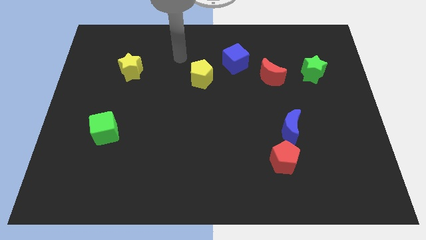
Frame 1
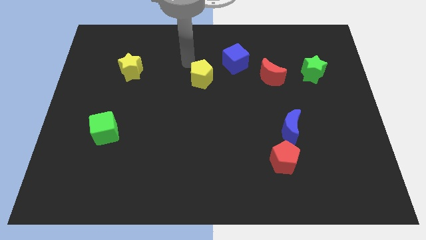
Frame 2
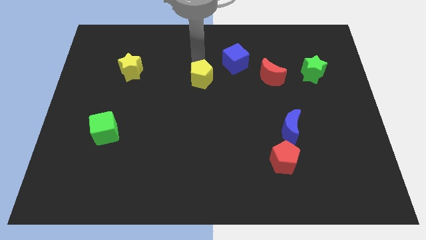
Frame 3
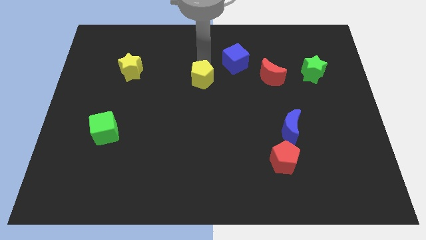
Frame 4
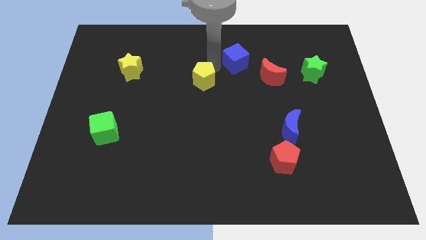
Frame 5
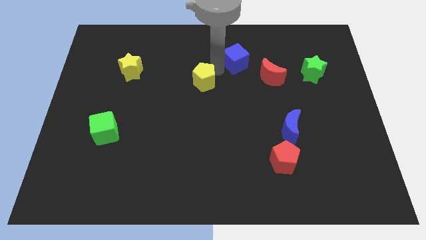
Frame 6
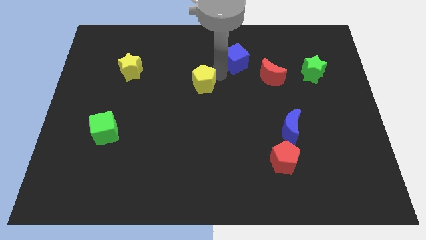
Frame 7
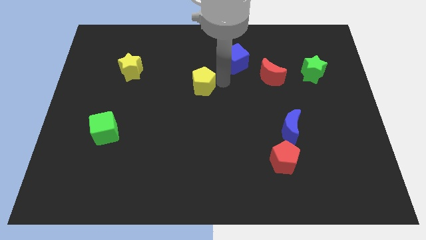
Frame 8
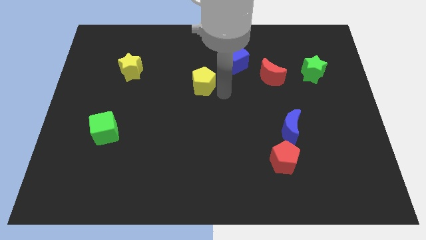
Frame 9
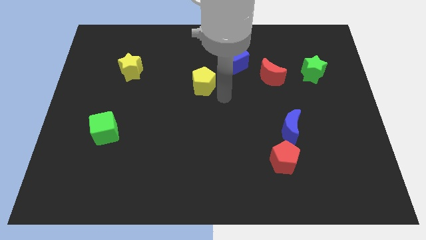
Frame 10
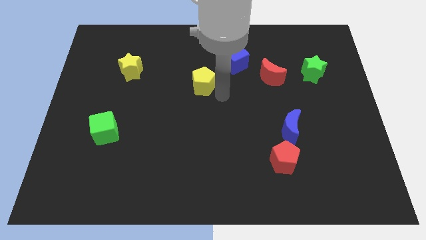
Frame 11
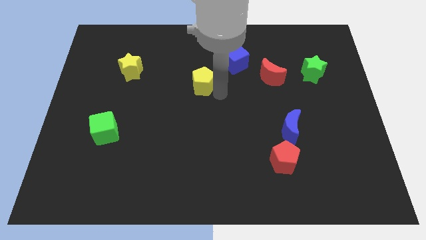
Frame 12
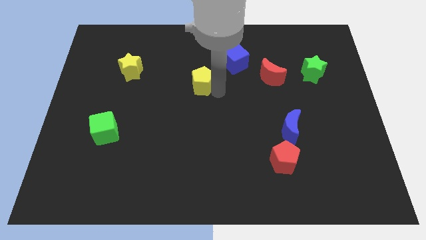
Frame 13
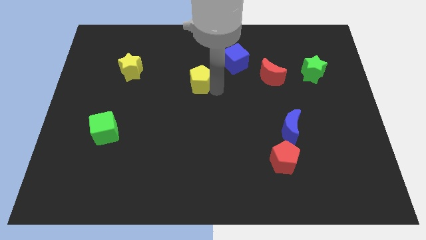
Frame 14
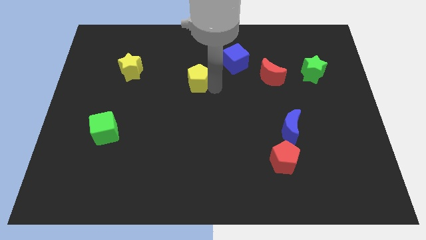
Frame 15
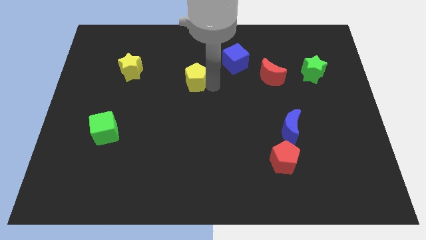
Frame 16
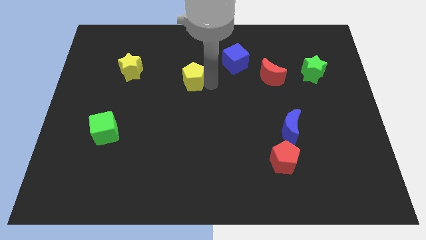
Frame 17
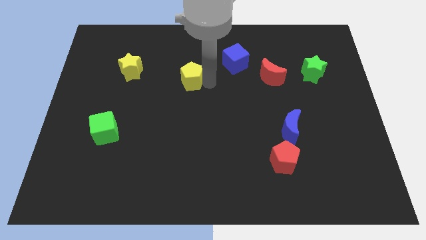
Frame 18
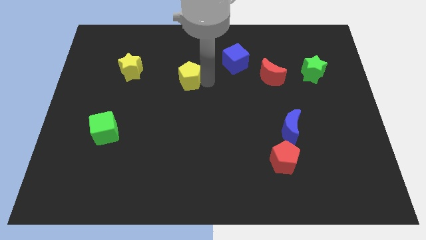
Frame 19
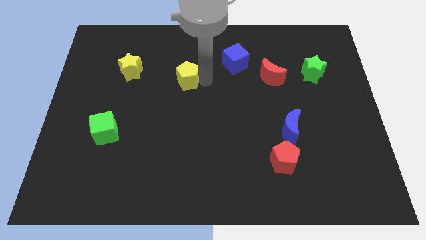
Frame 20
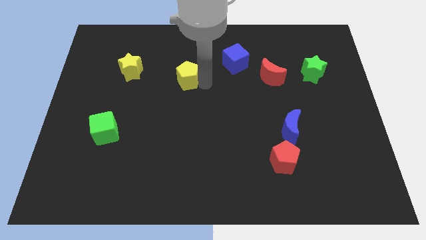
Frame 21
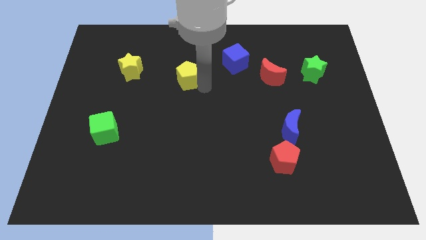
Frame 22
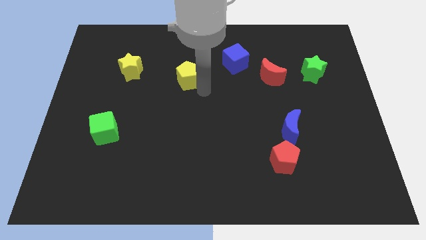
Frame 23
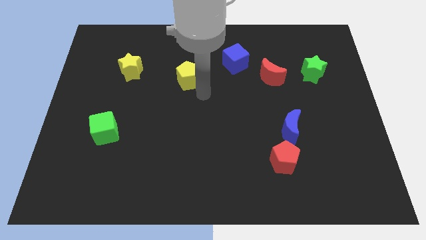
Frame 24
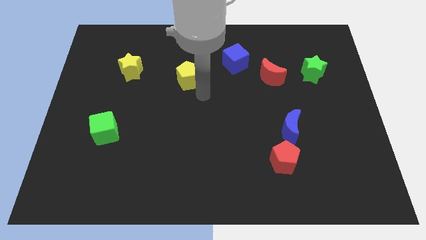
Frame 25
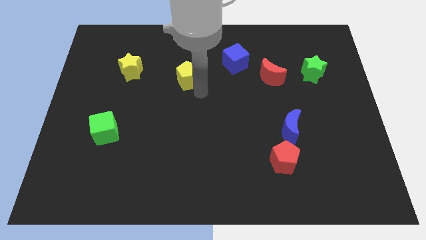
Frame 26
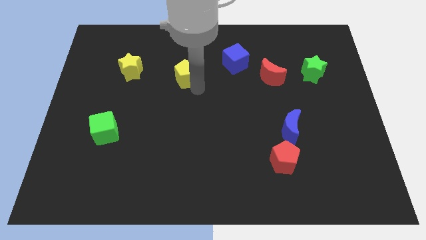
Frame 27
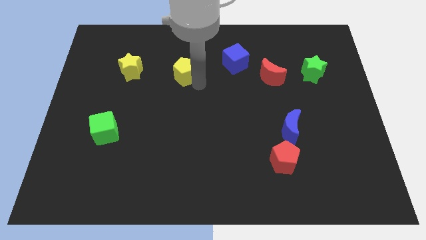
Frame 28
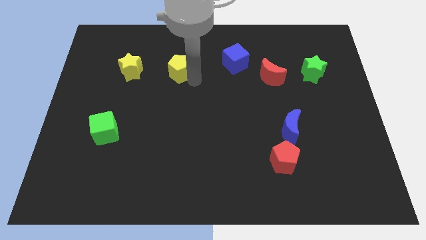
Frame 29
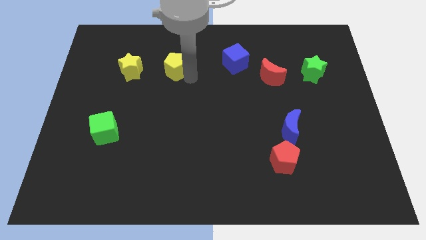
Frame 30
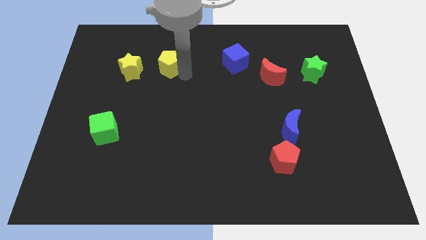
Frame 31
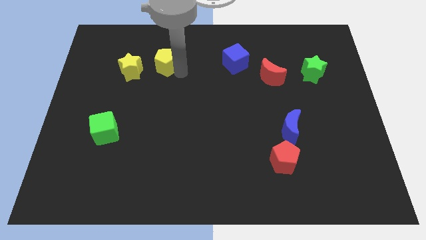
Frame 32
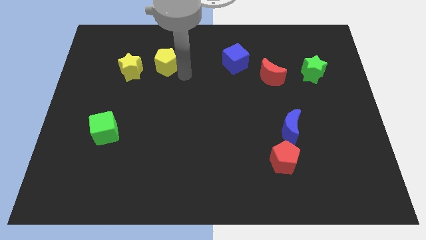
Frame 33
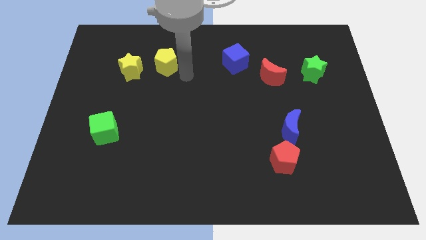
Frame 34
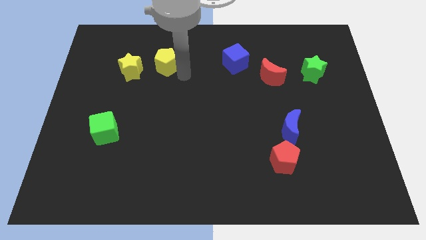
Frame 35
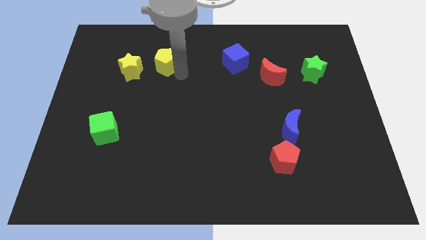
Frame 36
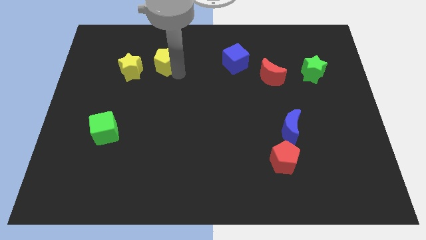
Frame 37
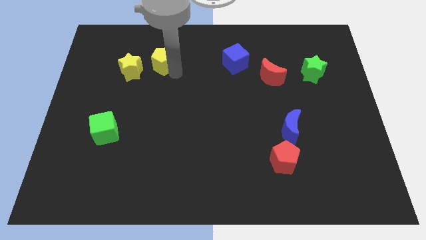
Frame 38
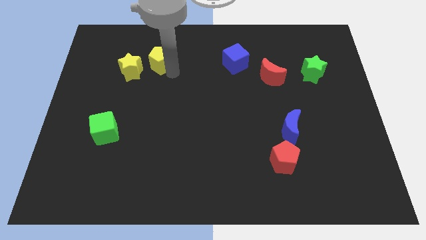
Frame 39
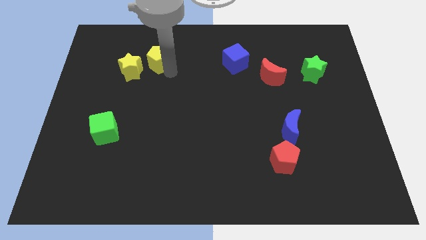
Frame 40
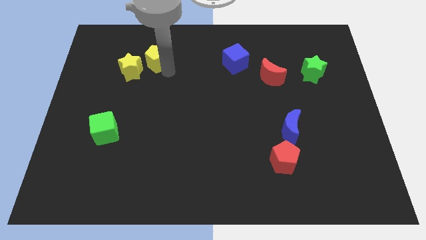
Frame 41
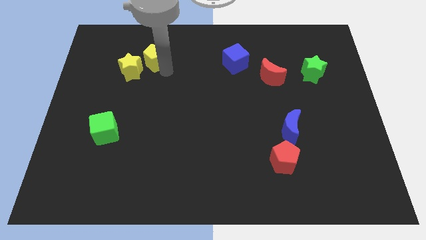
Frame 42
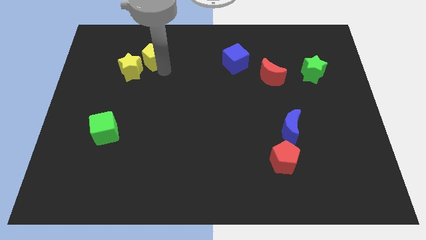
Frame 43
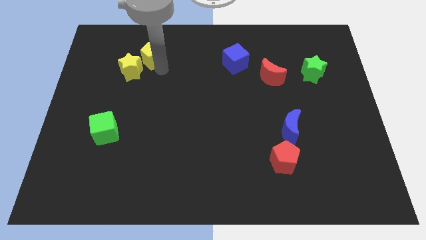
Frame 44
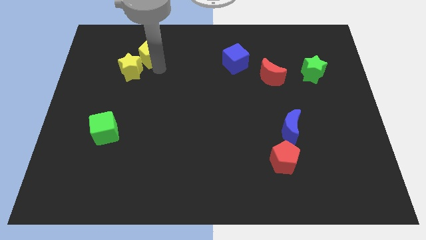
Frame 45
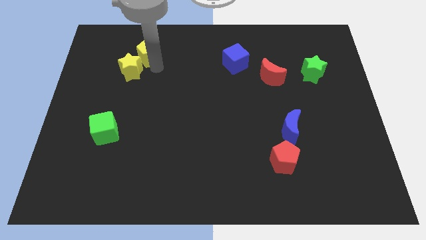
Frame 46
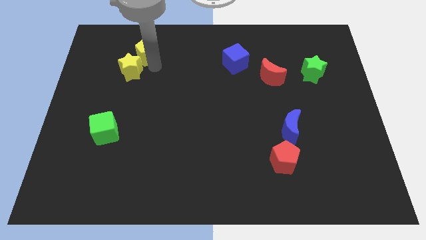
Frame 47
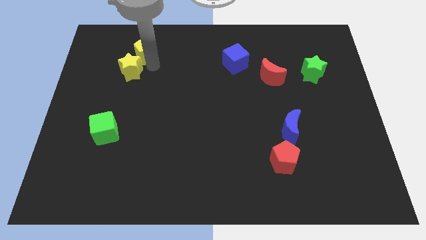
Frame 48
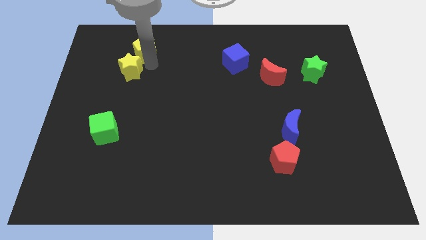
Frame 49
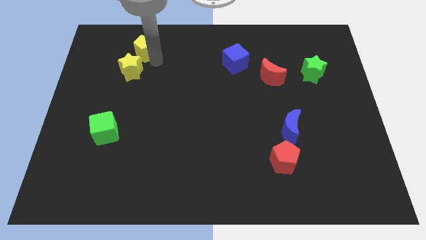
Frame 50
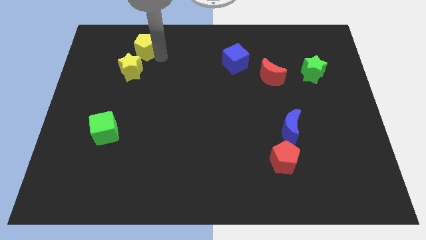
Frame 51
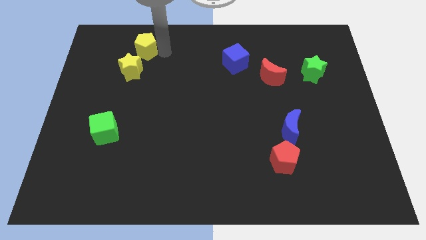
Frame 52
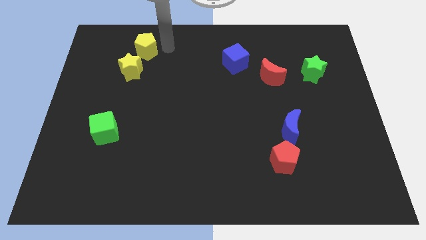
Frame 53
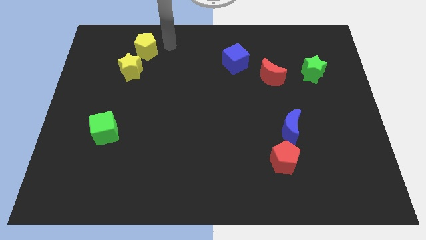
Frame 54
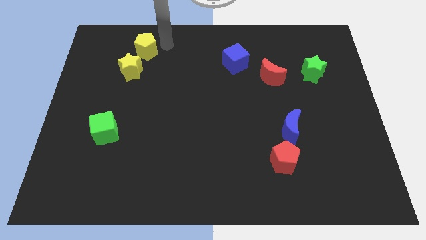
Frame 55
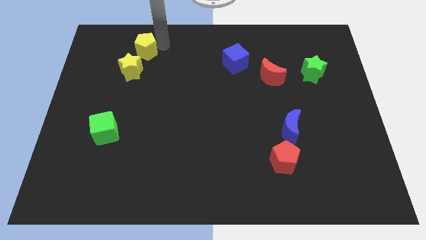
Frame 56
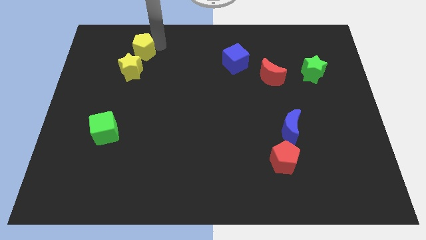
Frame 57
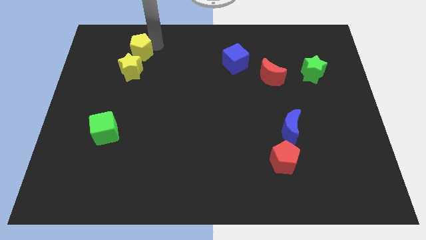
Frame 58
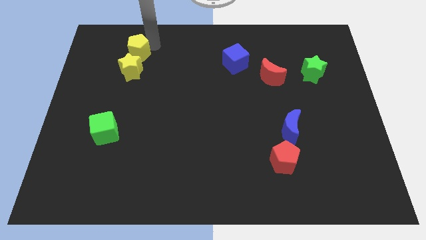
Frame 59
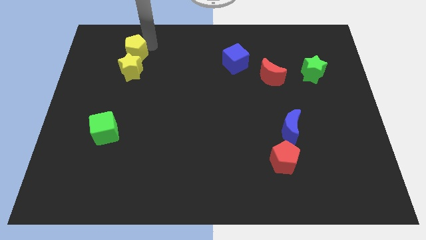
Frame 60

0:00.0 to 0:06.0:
move the yellow pentagon to the top left side of the yellow star

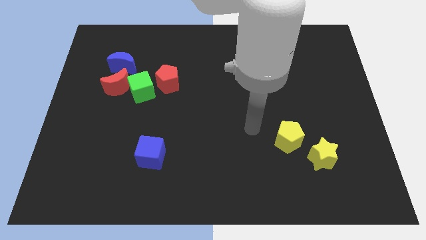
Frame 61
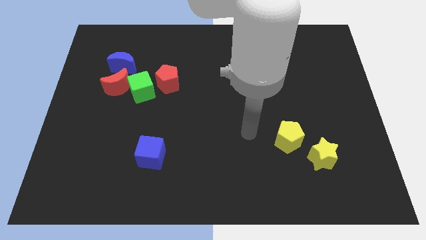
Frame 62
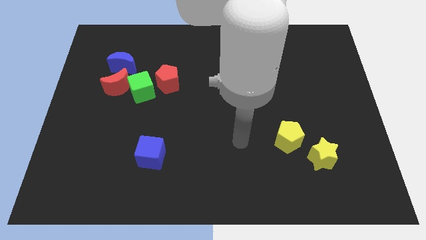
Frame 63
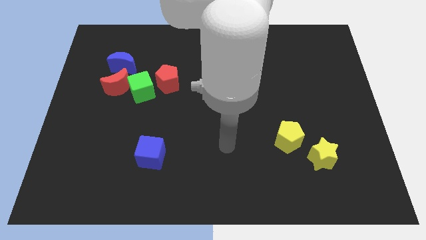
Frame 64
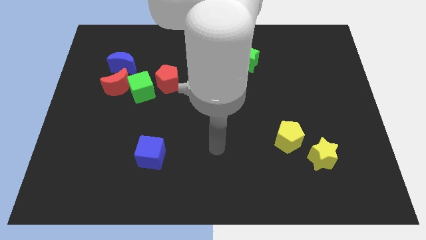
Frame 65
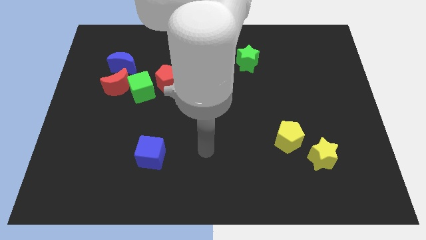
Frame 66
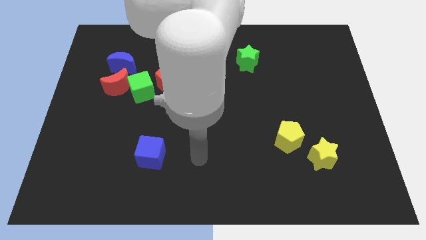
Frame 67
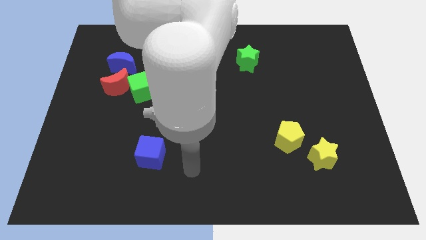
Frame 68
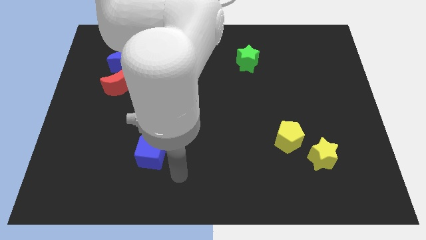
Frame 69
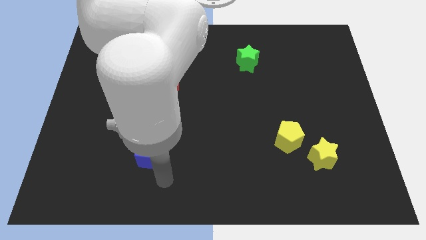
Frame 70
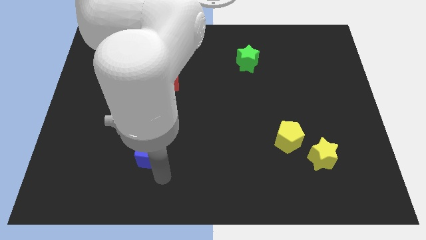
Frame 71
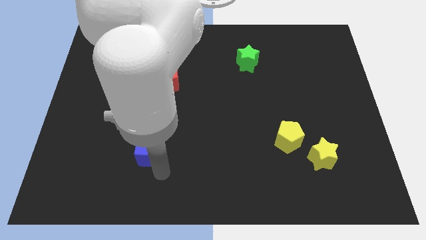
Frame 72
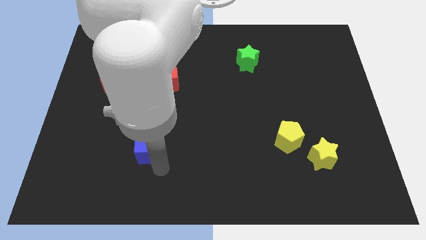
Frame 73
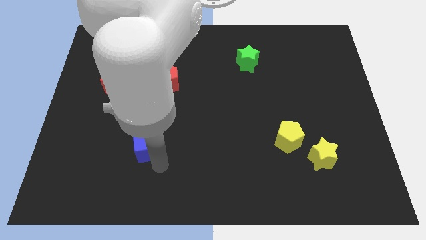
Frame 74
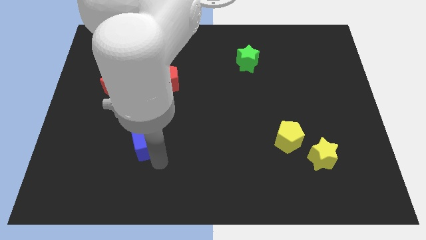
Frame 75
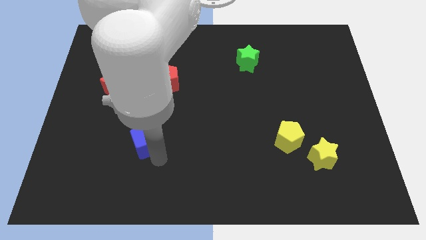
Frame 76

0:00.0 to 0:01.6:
put the blue cube to the bottom side of the green cube
